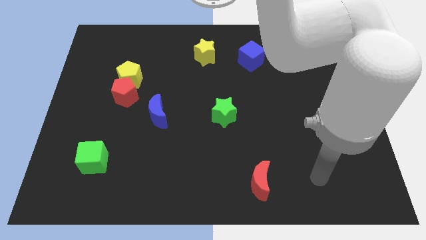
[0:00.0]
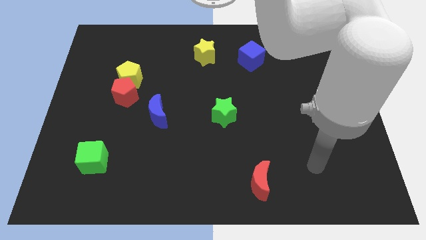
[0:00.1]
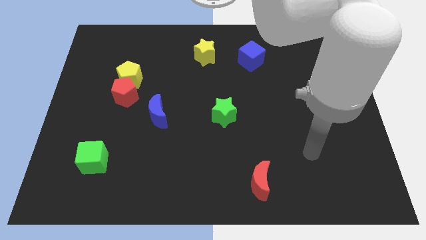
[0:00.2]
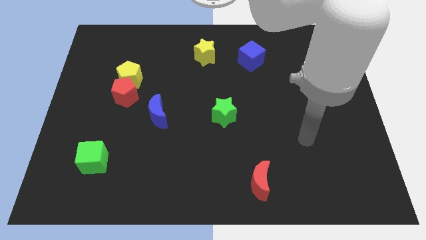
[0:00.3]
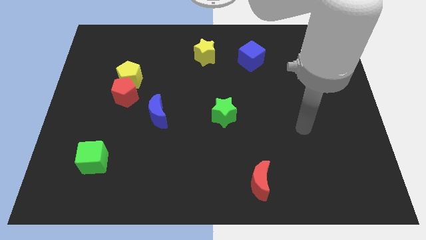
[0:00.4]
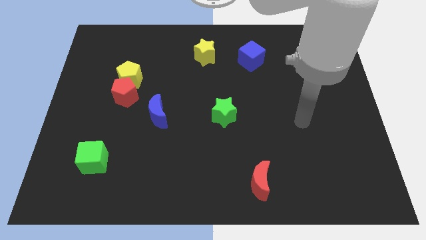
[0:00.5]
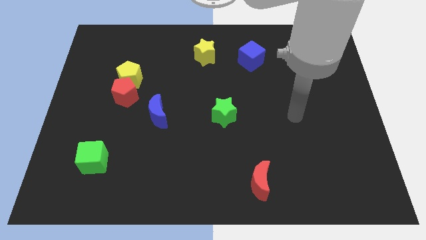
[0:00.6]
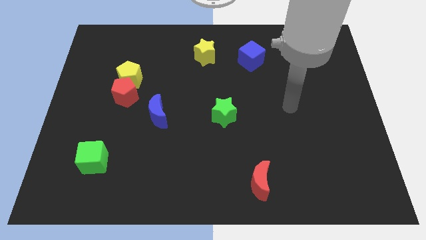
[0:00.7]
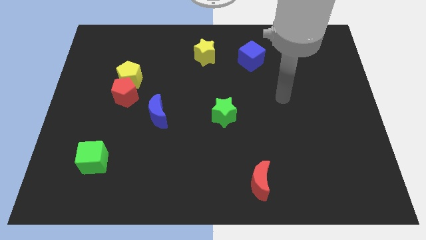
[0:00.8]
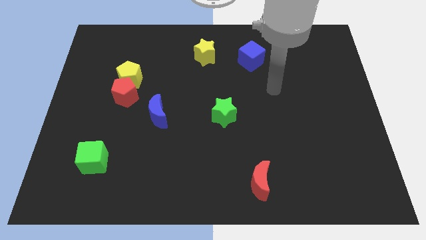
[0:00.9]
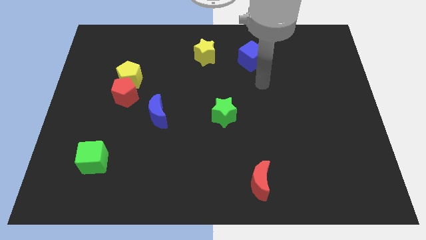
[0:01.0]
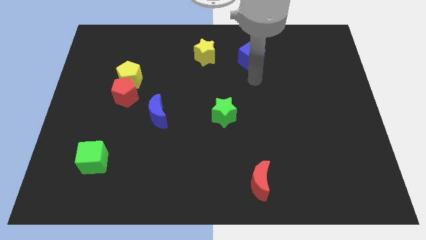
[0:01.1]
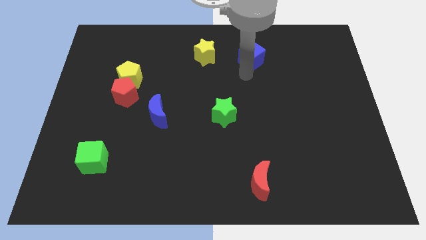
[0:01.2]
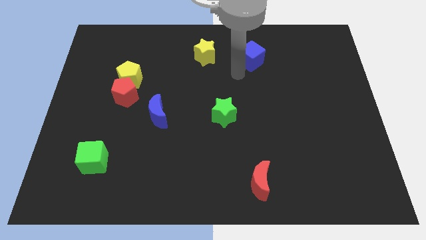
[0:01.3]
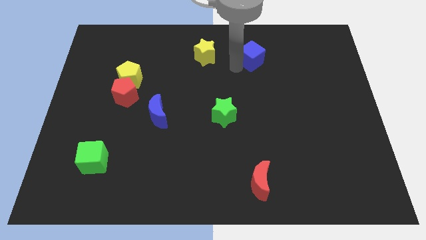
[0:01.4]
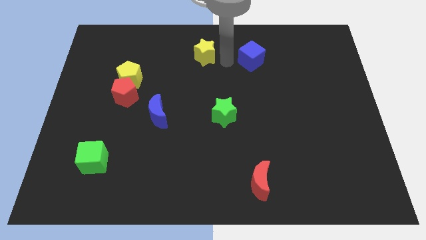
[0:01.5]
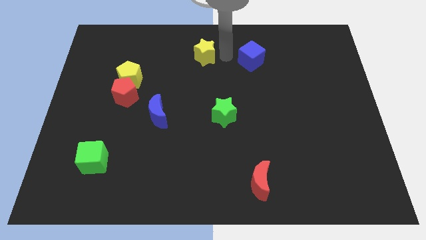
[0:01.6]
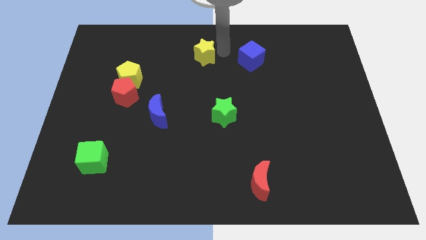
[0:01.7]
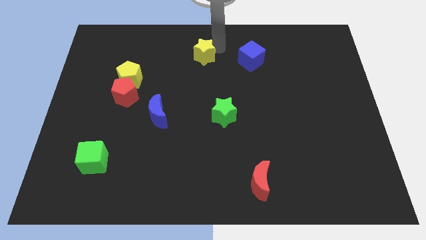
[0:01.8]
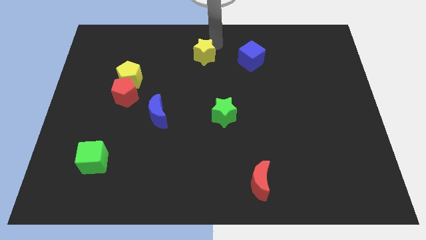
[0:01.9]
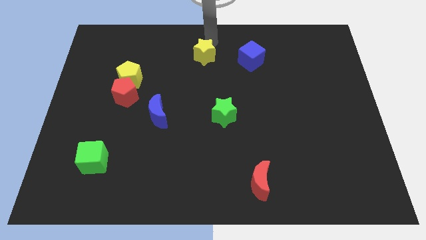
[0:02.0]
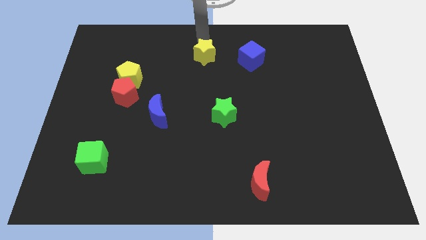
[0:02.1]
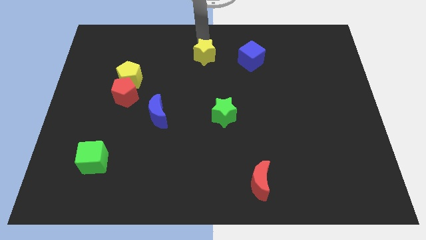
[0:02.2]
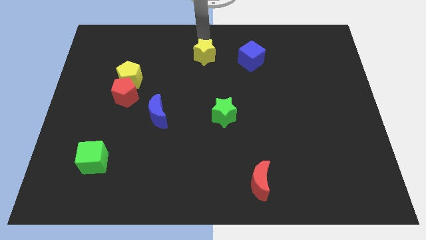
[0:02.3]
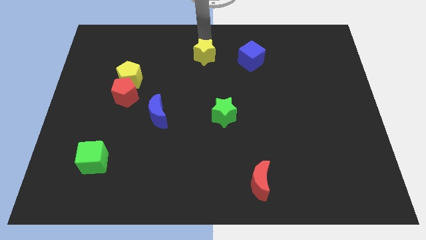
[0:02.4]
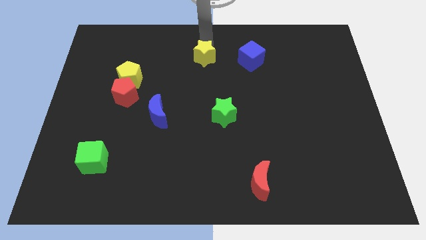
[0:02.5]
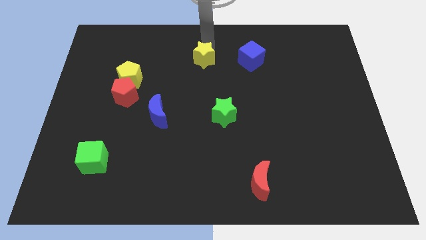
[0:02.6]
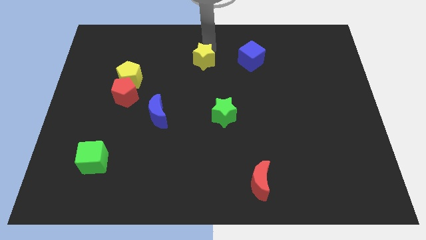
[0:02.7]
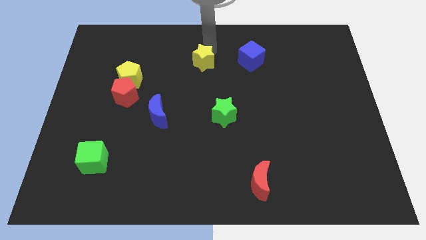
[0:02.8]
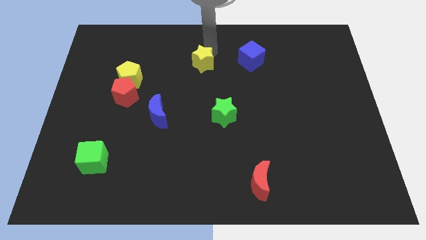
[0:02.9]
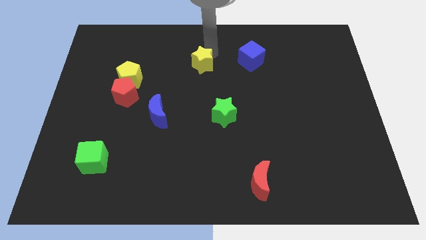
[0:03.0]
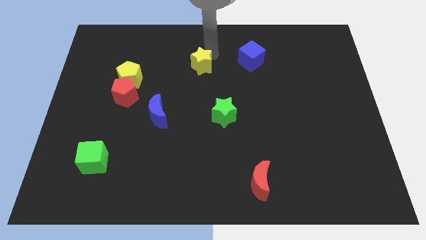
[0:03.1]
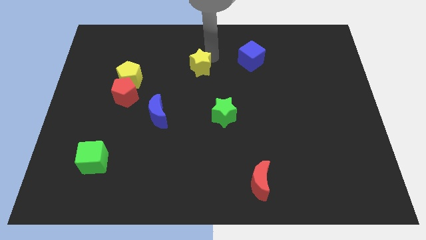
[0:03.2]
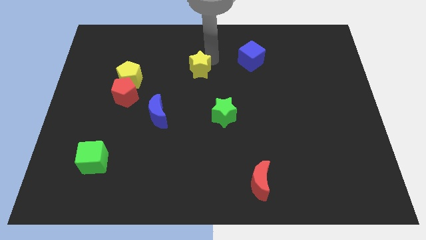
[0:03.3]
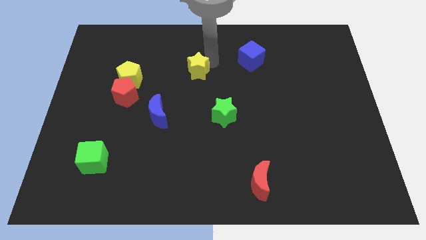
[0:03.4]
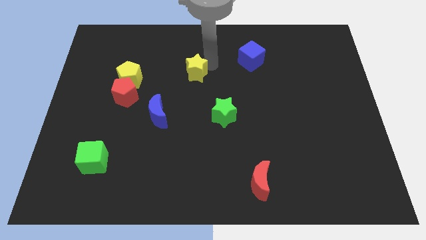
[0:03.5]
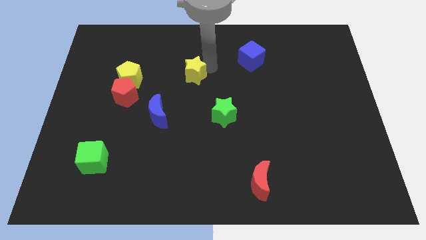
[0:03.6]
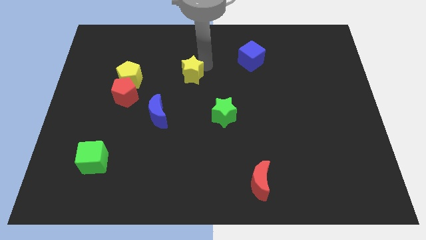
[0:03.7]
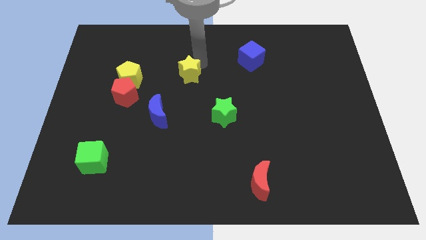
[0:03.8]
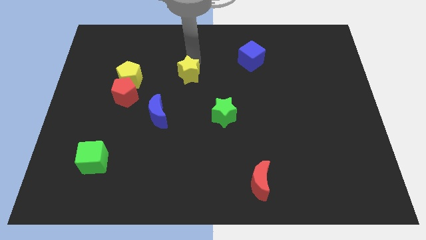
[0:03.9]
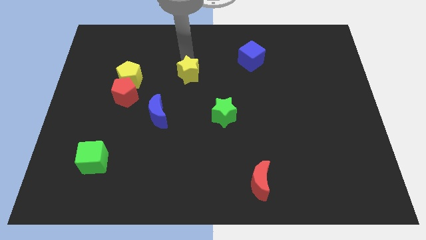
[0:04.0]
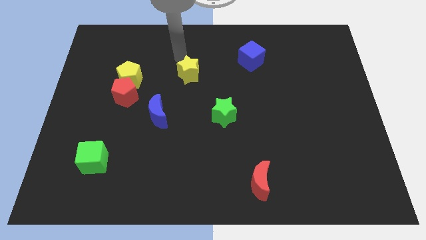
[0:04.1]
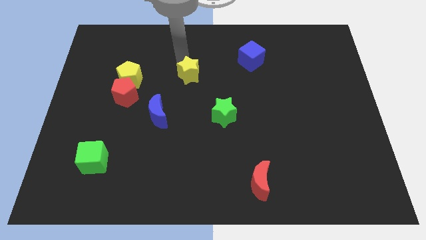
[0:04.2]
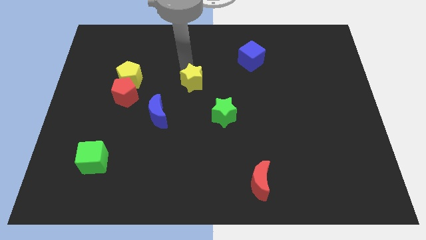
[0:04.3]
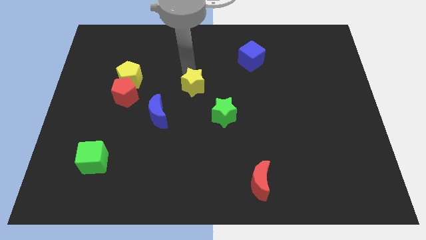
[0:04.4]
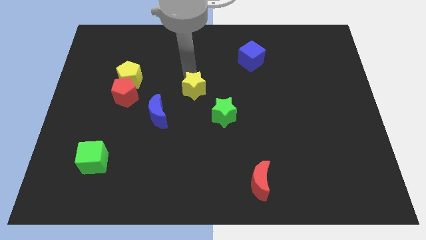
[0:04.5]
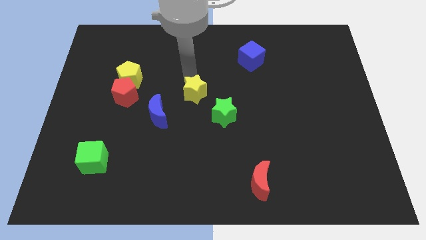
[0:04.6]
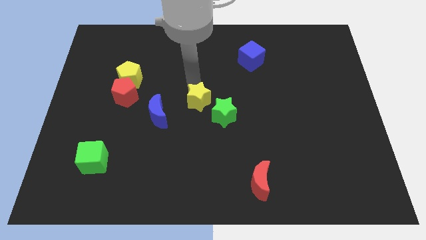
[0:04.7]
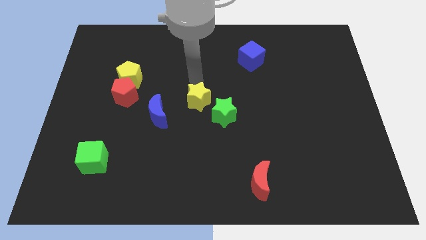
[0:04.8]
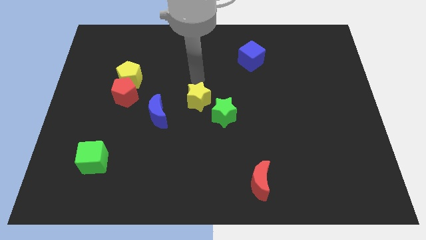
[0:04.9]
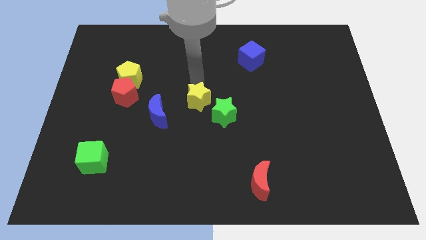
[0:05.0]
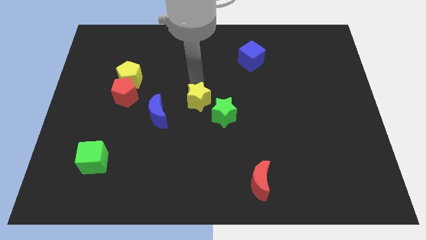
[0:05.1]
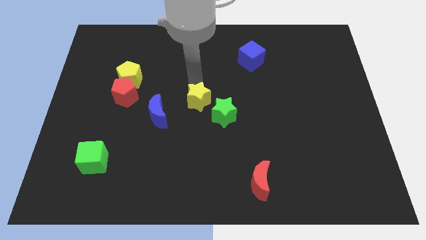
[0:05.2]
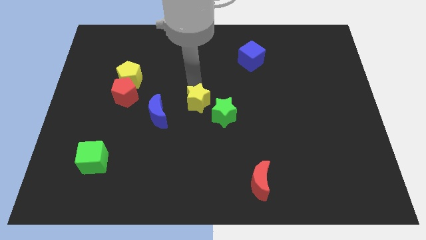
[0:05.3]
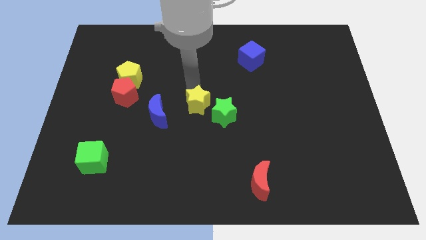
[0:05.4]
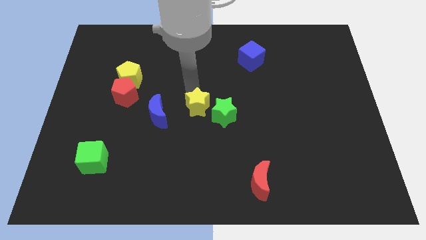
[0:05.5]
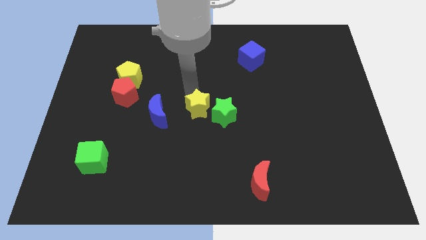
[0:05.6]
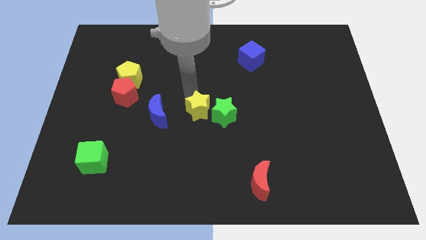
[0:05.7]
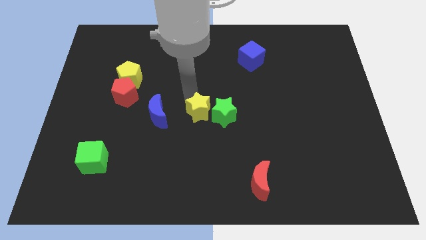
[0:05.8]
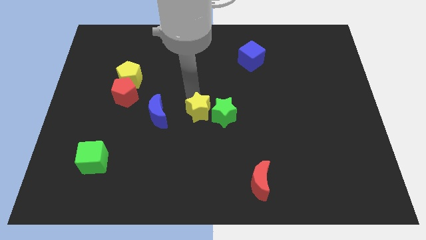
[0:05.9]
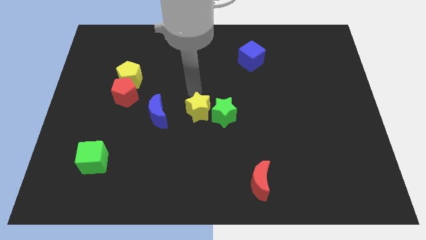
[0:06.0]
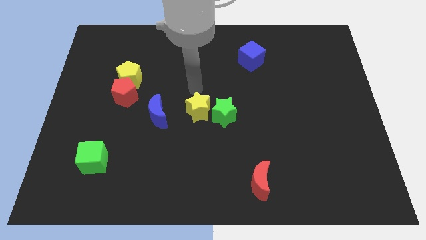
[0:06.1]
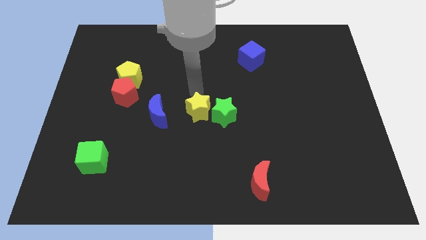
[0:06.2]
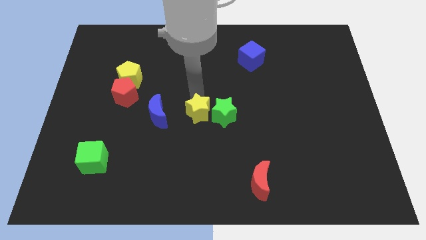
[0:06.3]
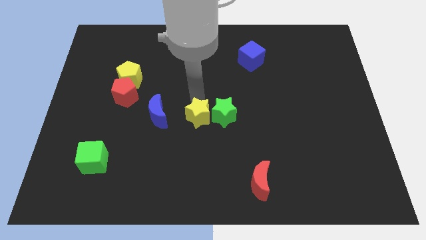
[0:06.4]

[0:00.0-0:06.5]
move the yellow star downwards

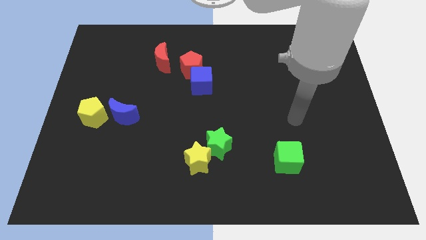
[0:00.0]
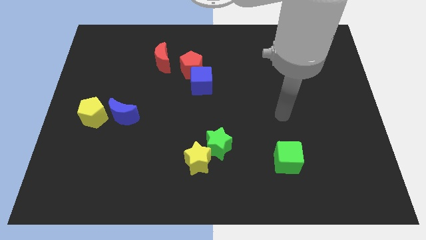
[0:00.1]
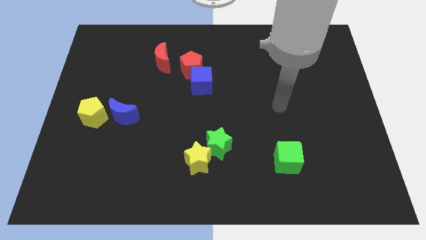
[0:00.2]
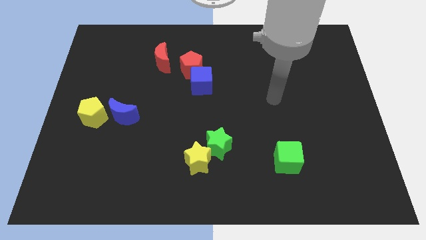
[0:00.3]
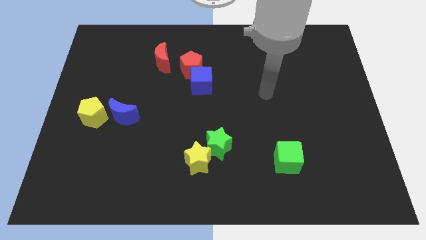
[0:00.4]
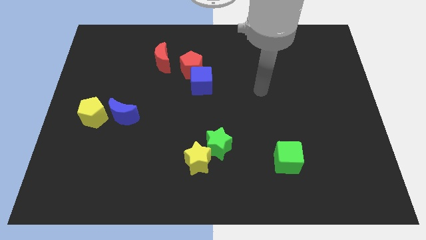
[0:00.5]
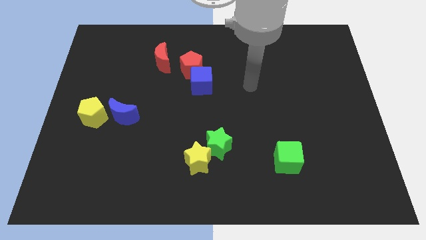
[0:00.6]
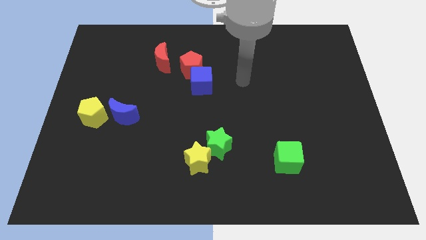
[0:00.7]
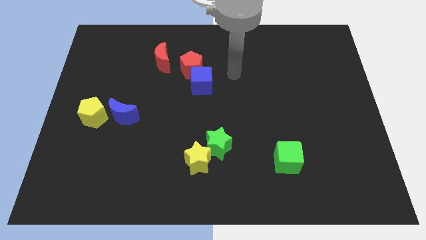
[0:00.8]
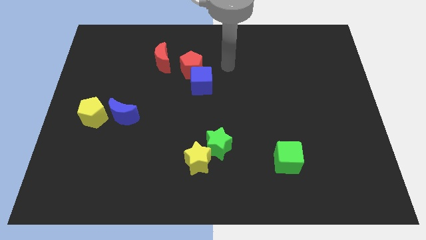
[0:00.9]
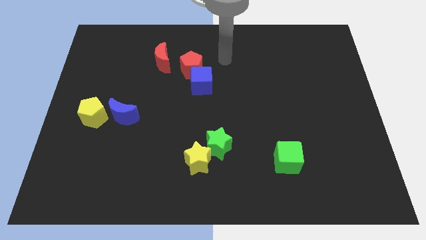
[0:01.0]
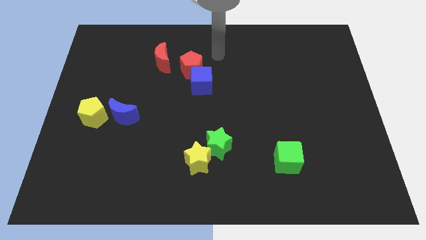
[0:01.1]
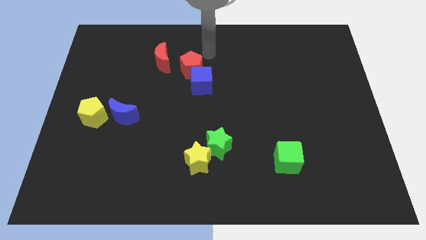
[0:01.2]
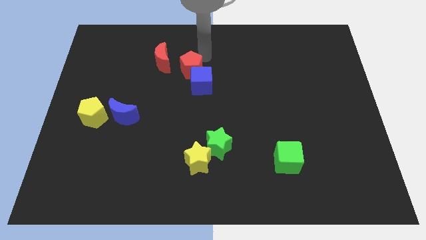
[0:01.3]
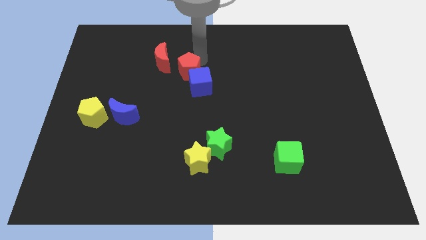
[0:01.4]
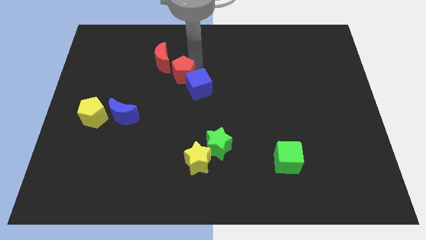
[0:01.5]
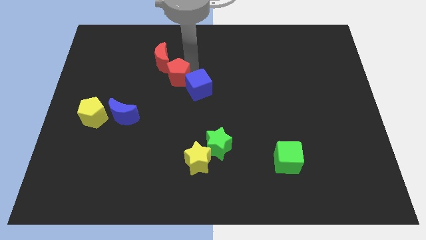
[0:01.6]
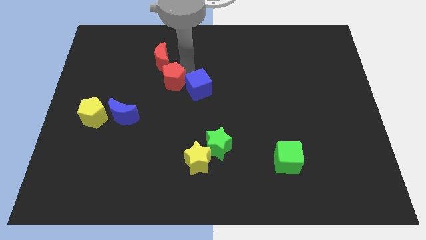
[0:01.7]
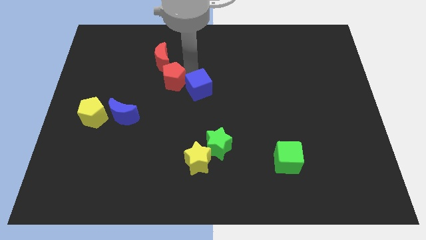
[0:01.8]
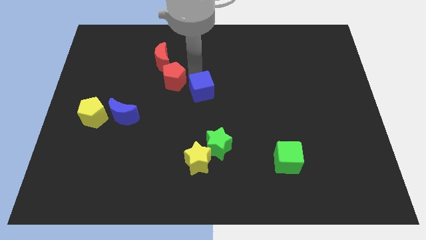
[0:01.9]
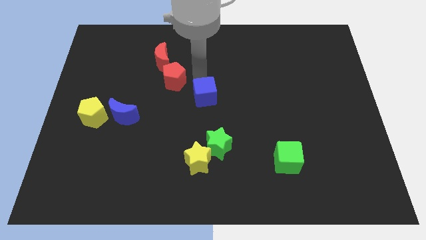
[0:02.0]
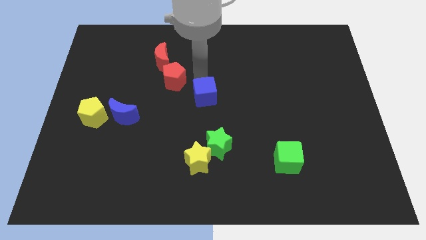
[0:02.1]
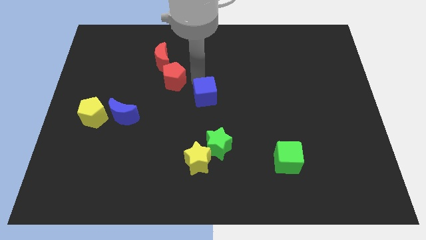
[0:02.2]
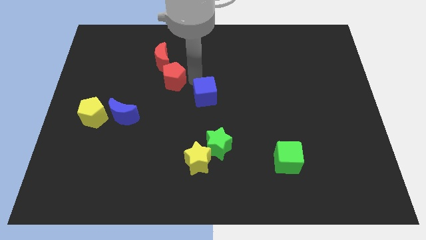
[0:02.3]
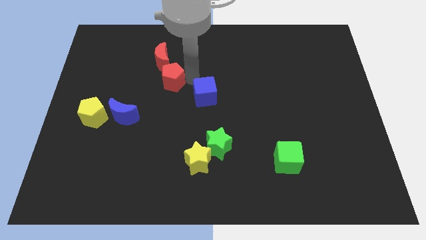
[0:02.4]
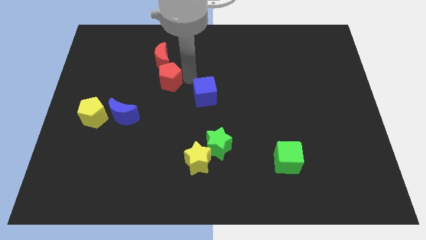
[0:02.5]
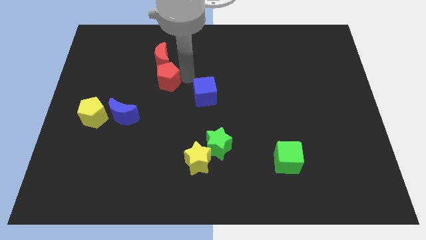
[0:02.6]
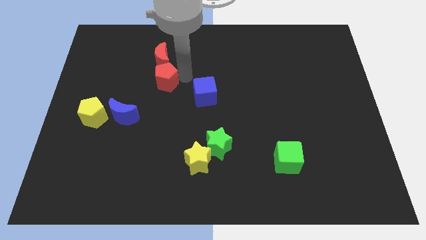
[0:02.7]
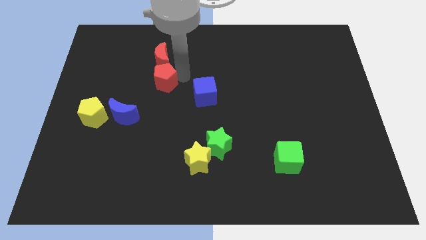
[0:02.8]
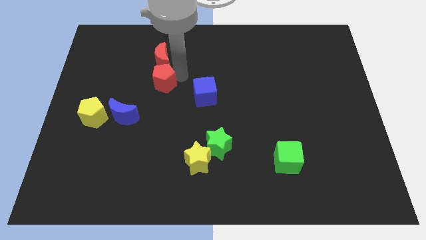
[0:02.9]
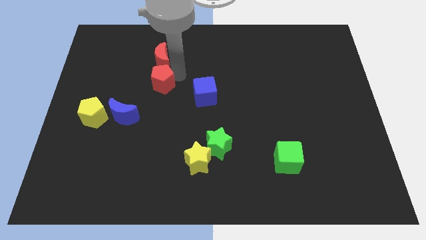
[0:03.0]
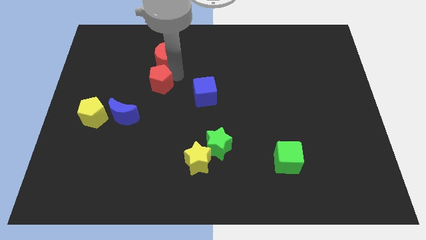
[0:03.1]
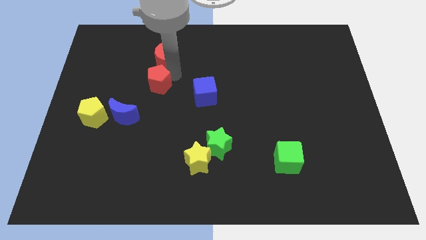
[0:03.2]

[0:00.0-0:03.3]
slightly move the red pentagon left
